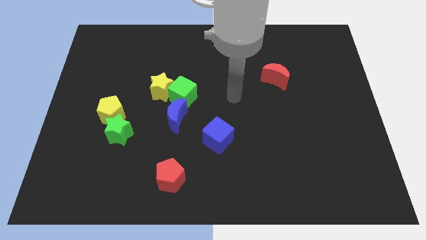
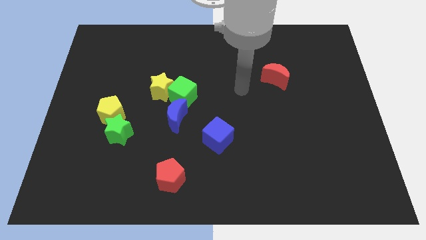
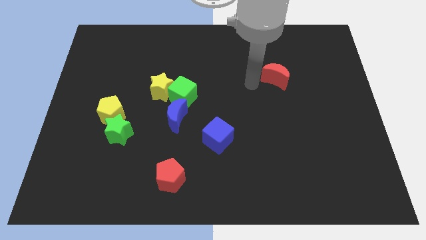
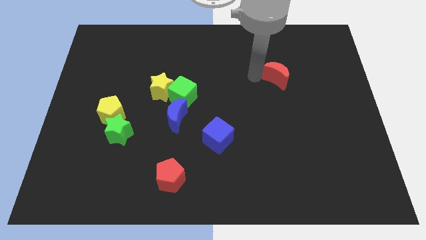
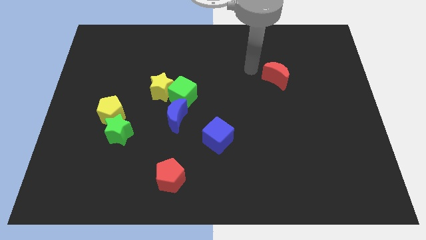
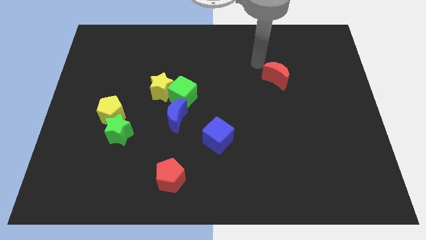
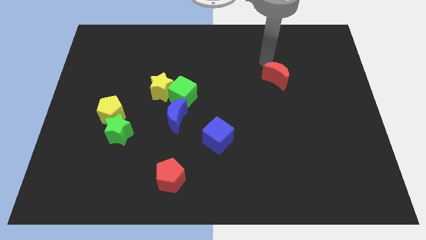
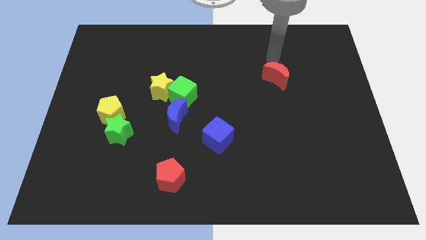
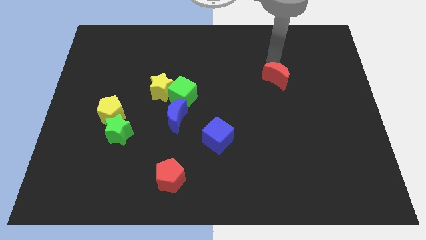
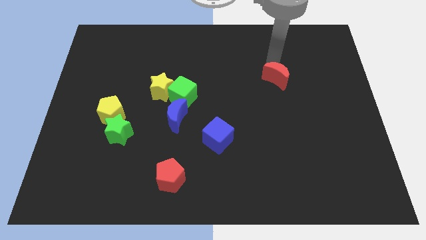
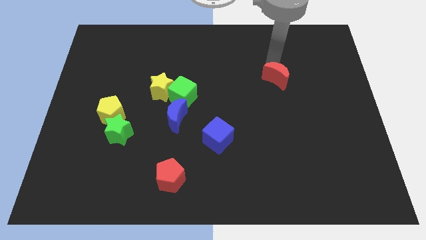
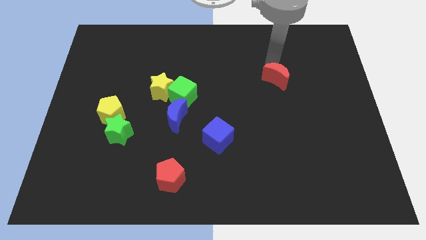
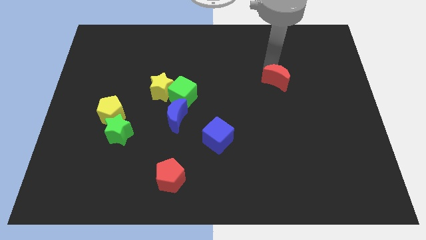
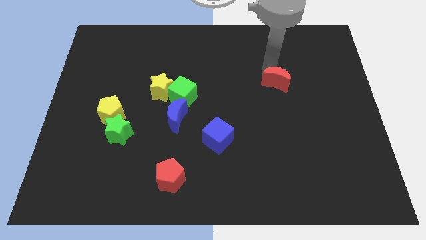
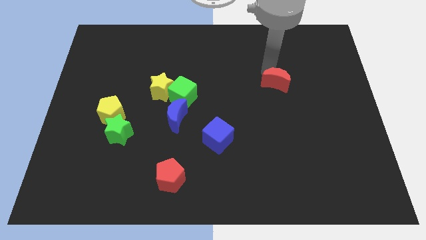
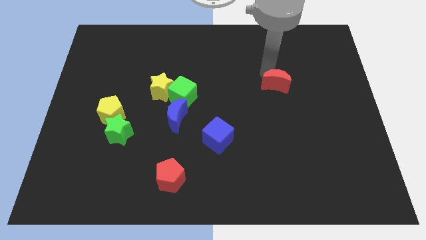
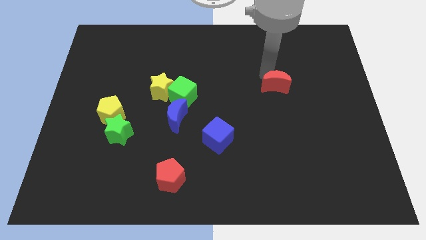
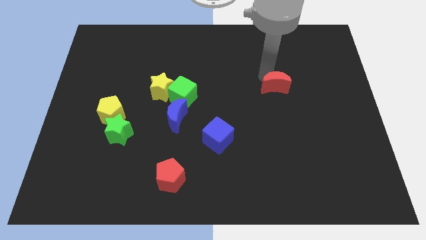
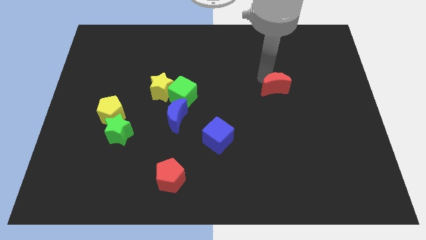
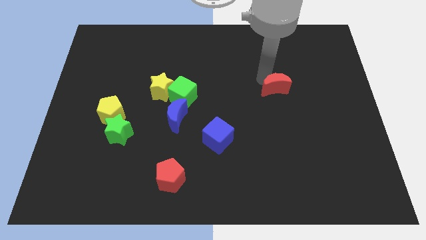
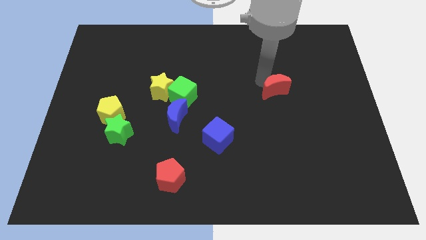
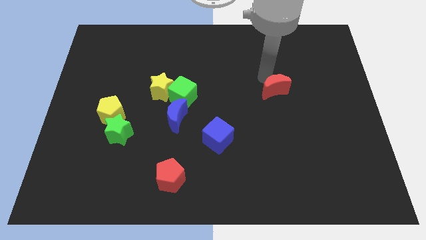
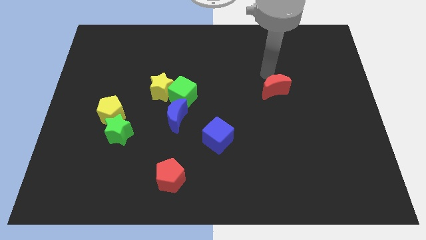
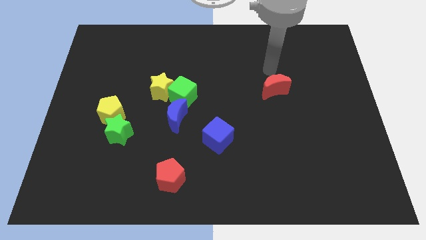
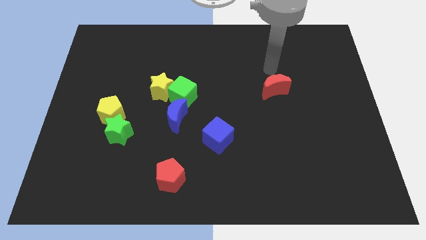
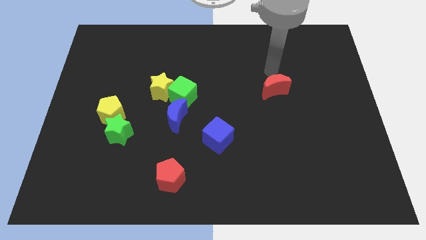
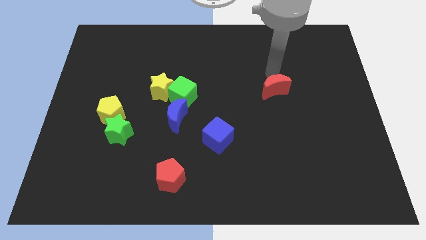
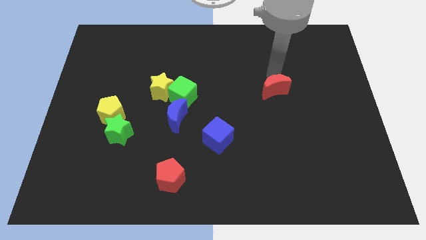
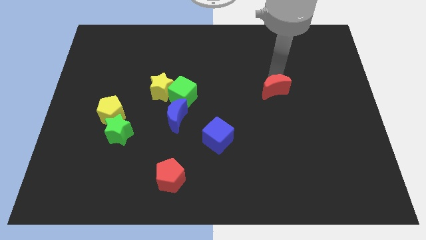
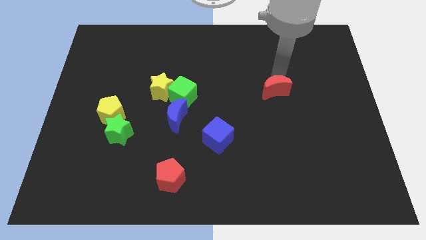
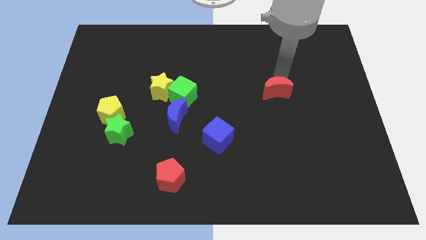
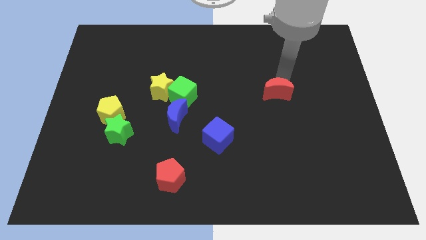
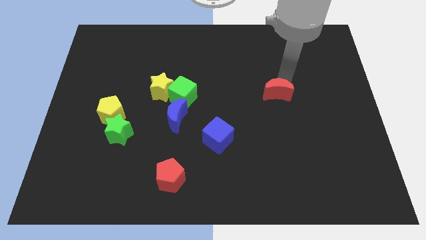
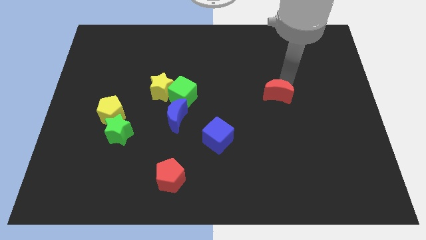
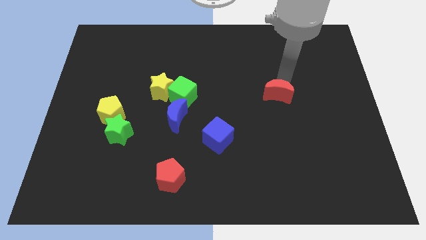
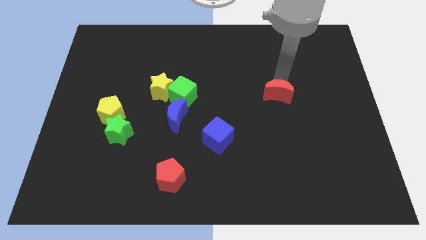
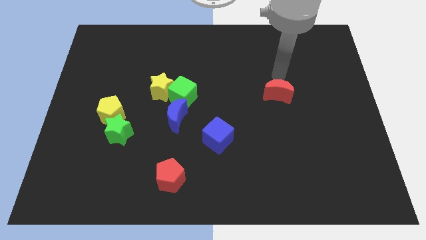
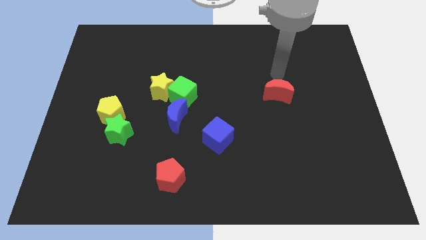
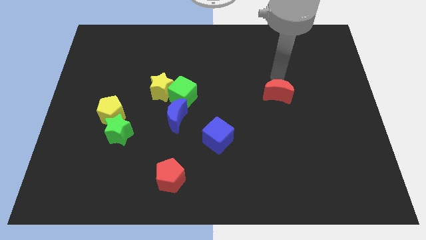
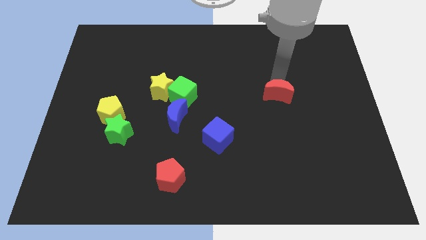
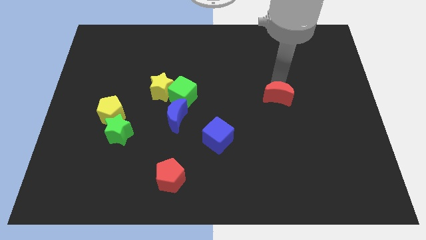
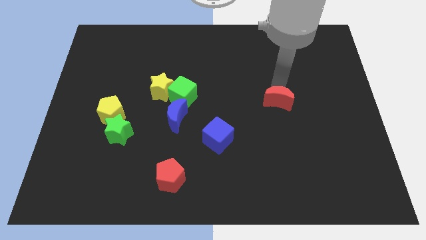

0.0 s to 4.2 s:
slide the red moon somewhat downwards

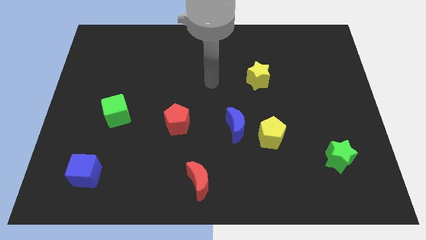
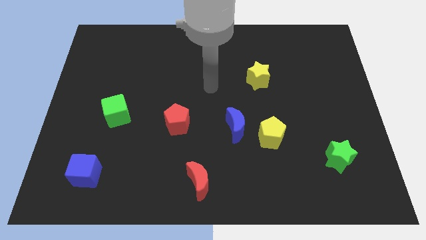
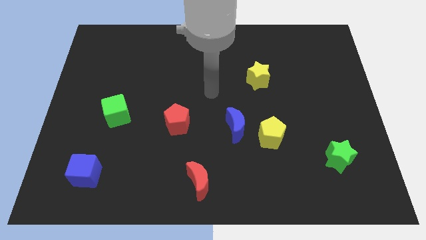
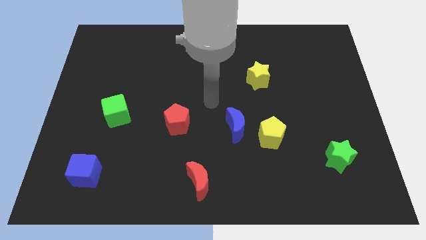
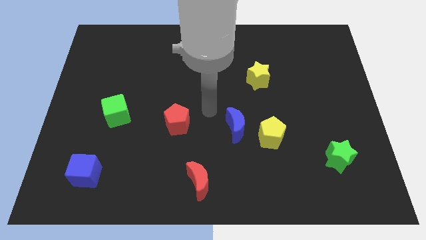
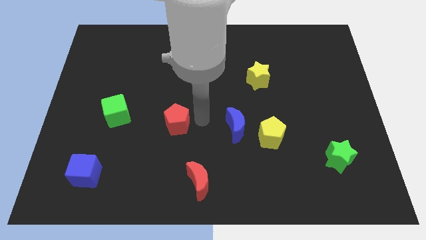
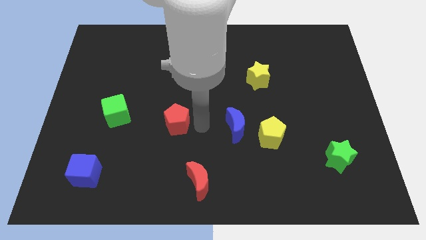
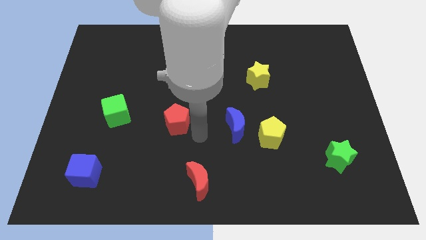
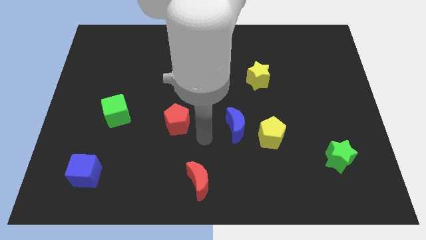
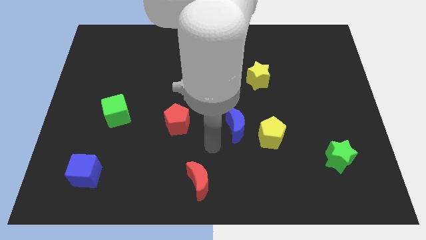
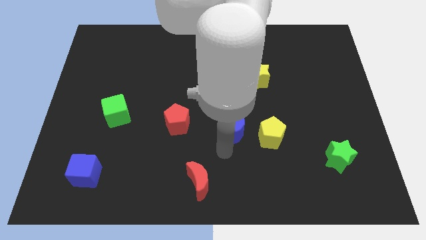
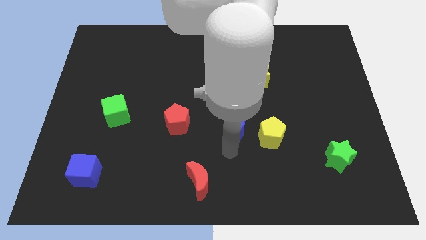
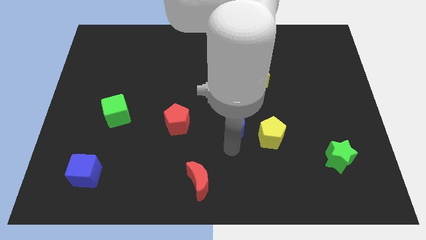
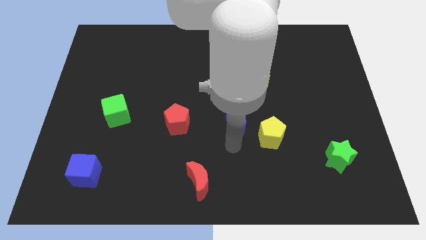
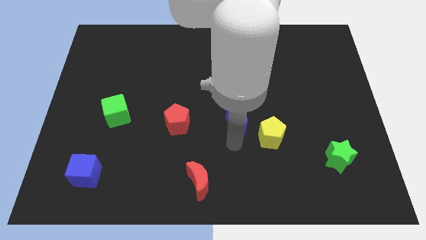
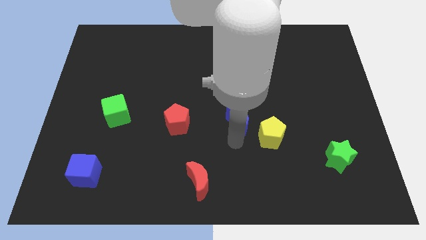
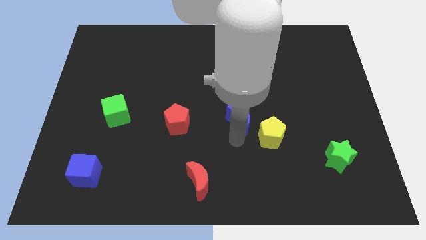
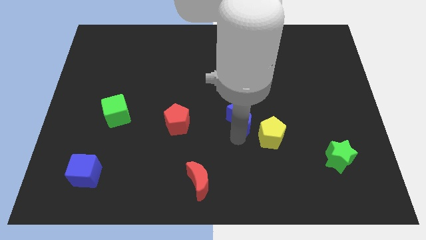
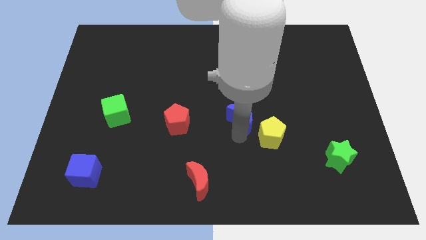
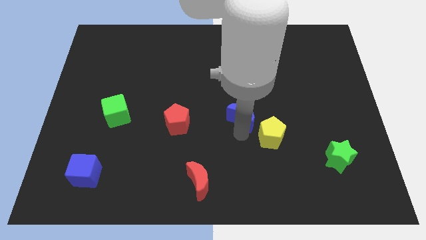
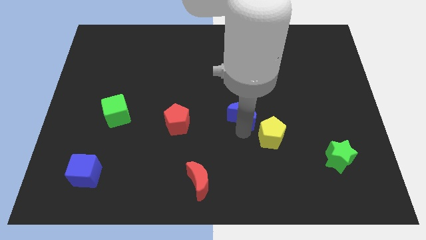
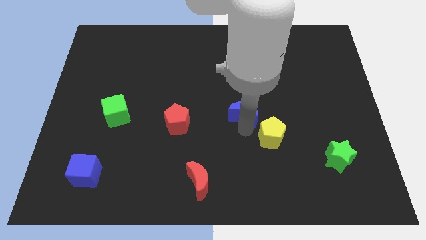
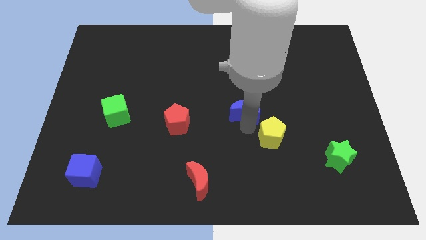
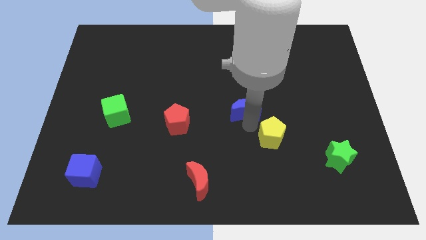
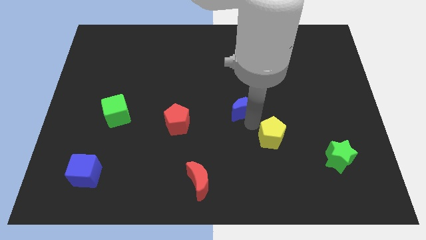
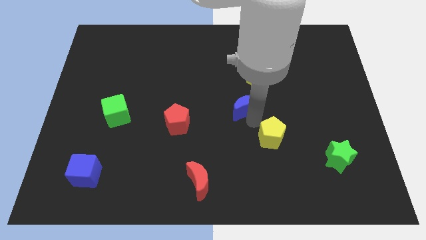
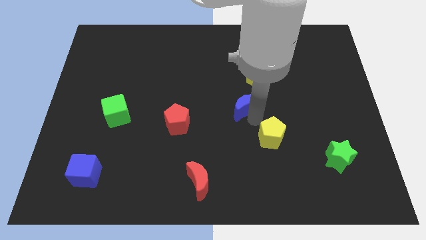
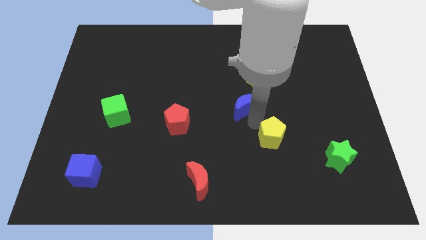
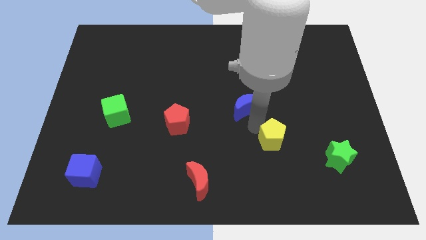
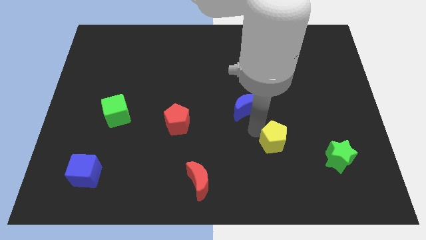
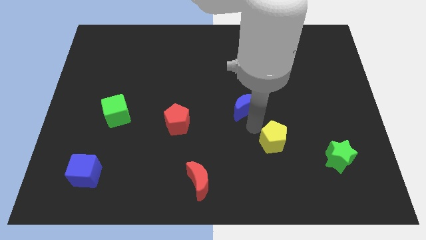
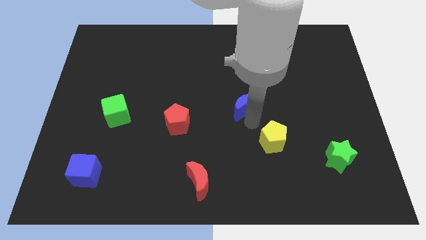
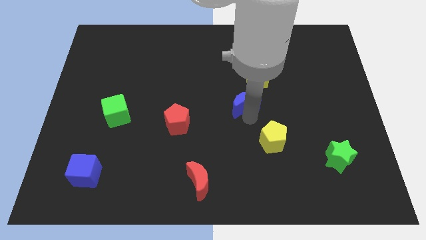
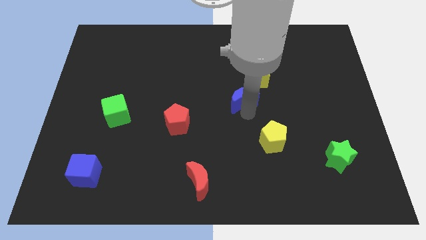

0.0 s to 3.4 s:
move the blue moon a little upwards

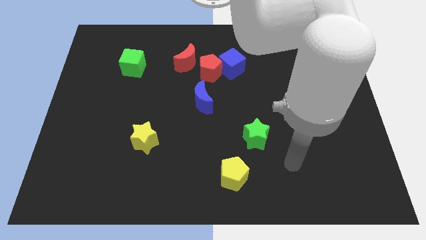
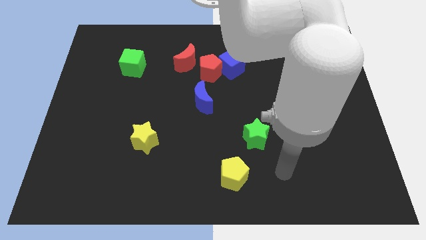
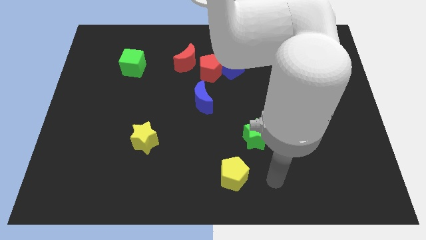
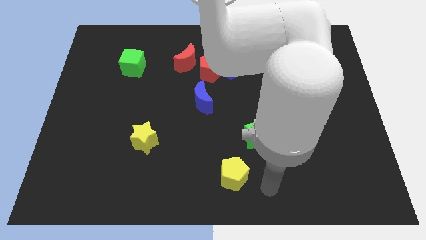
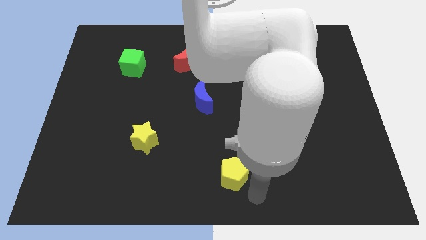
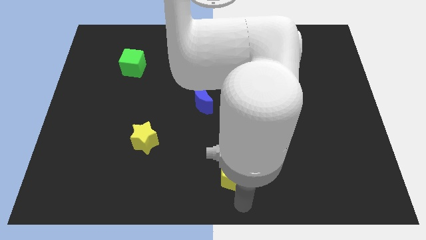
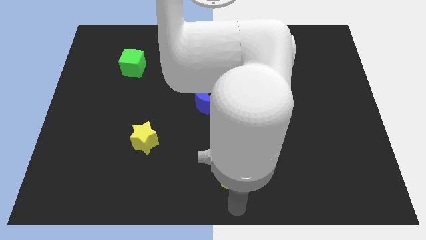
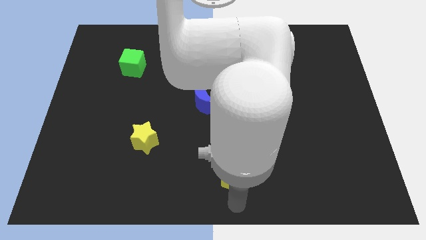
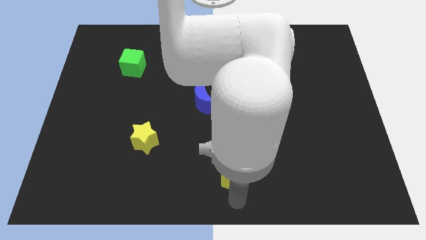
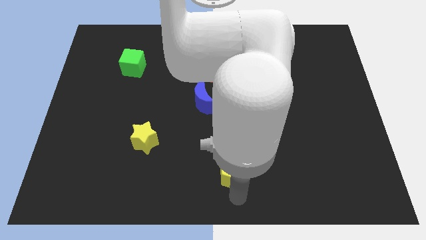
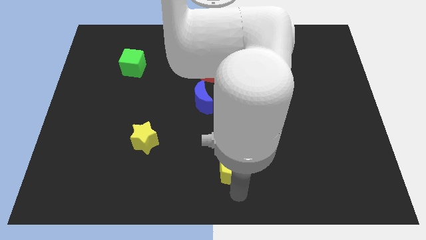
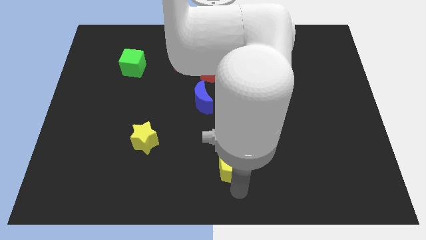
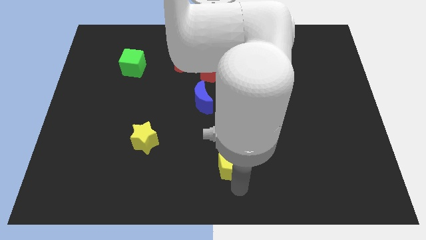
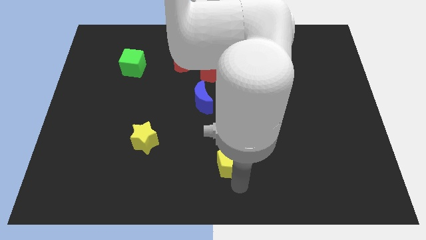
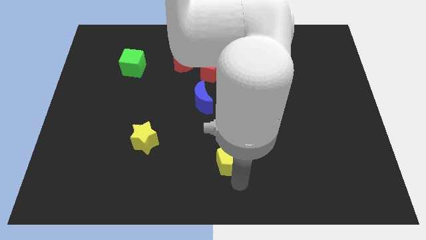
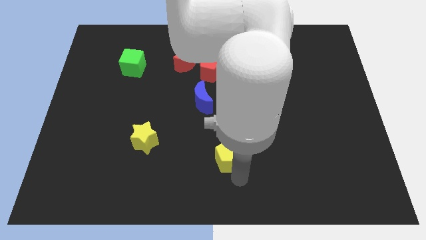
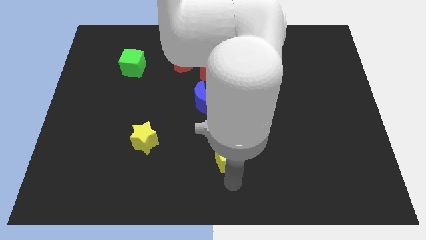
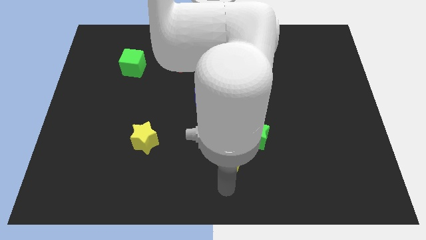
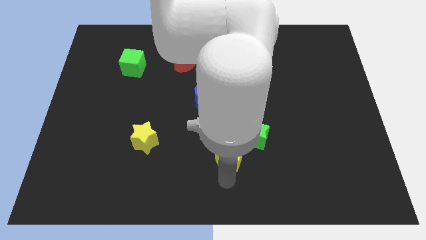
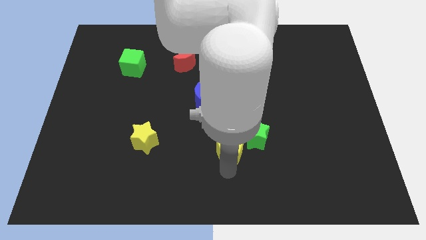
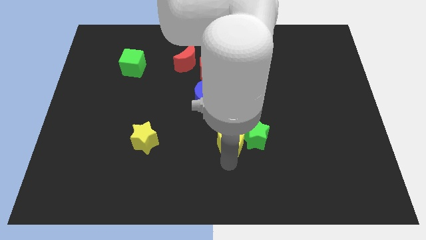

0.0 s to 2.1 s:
slide the yellow pentagon a bit up
